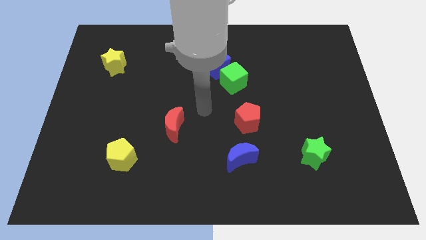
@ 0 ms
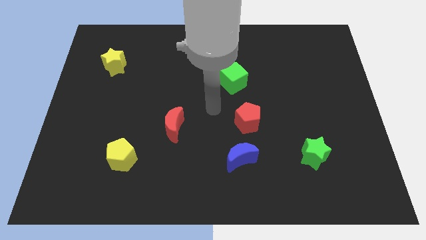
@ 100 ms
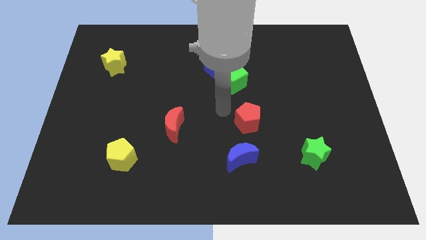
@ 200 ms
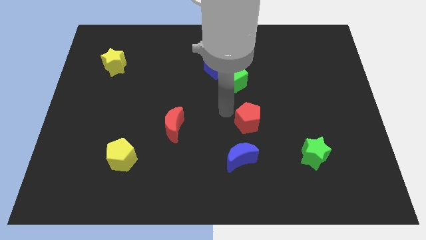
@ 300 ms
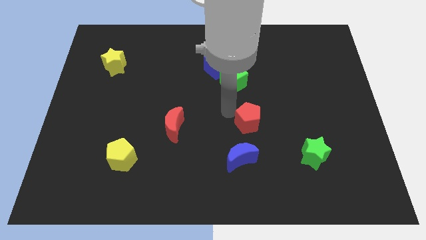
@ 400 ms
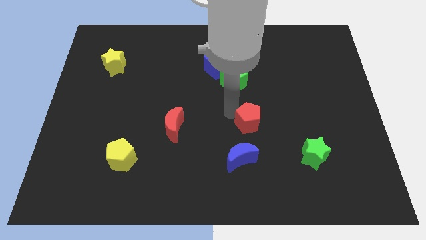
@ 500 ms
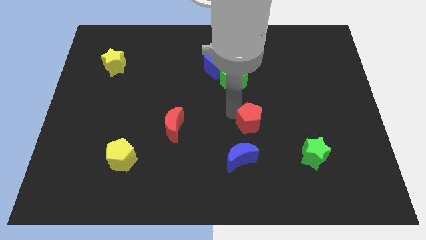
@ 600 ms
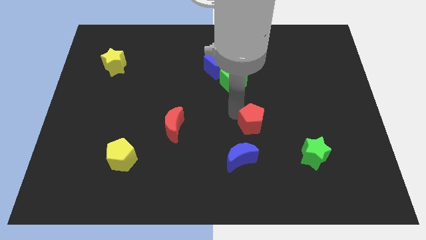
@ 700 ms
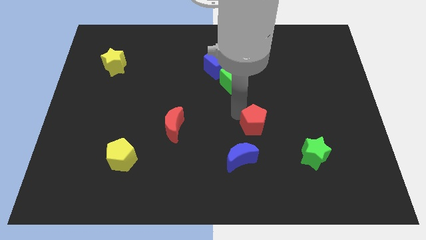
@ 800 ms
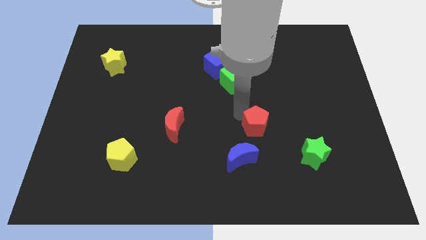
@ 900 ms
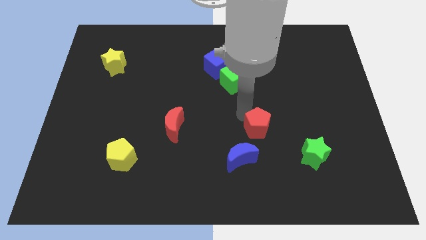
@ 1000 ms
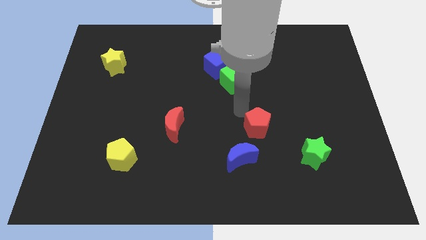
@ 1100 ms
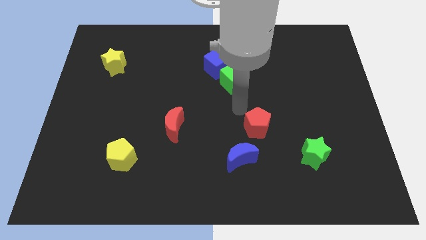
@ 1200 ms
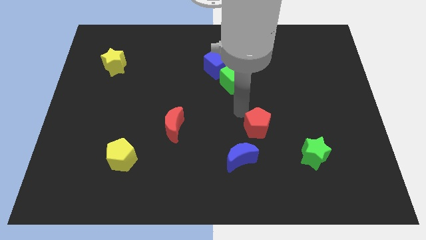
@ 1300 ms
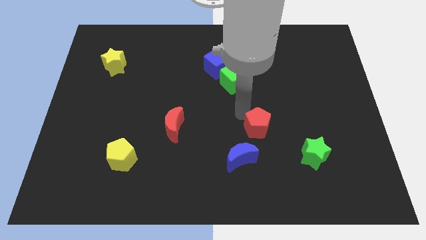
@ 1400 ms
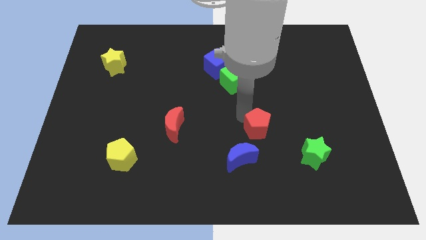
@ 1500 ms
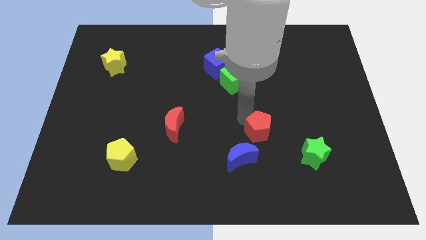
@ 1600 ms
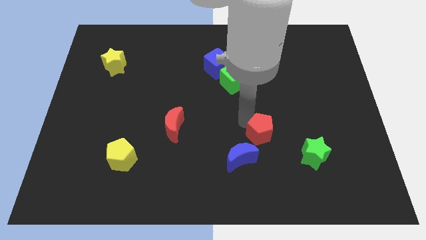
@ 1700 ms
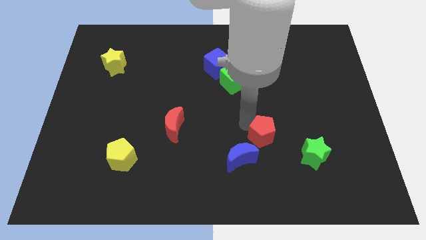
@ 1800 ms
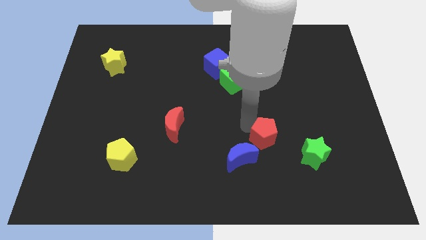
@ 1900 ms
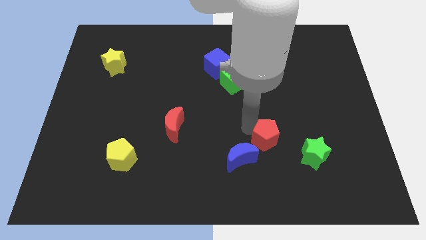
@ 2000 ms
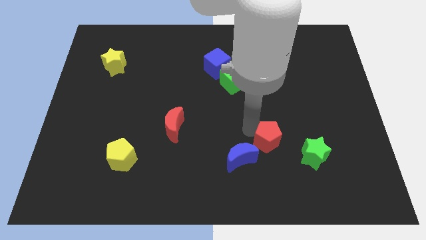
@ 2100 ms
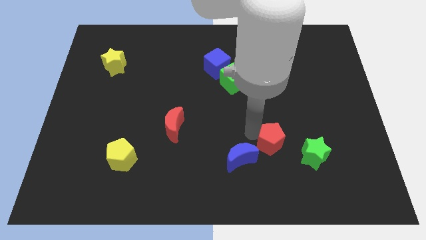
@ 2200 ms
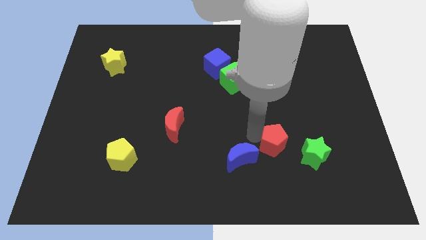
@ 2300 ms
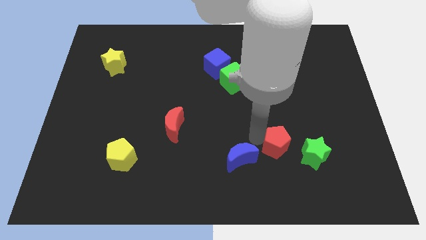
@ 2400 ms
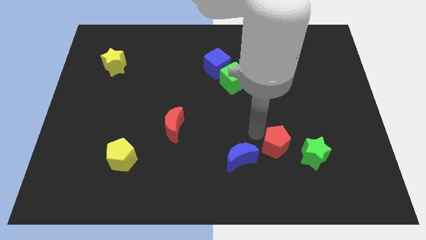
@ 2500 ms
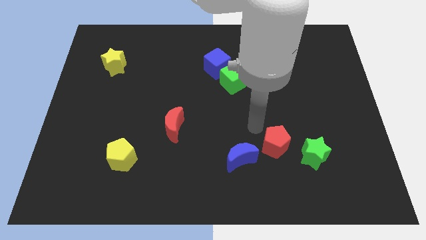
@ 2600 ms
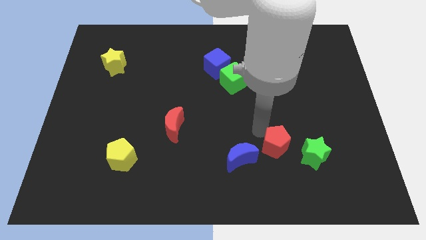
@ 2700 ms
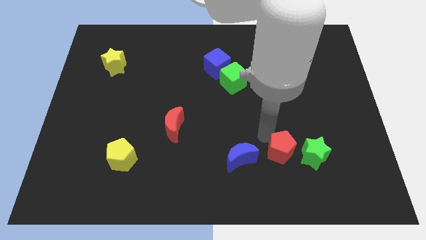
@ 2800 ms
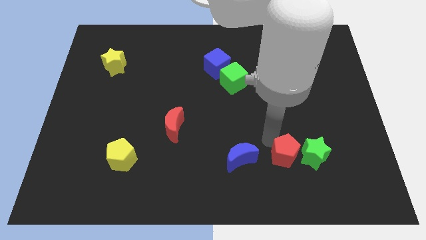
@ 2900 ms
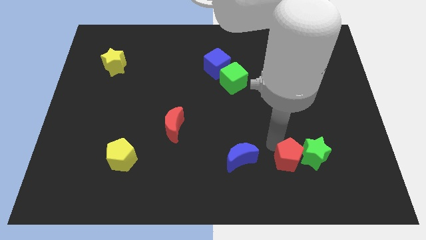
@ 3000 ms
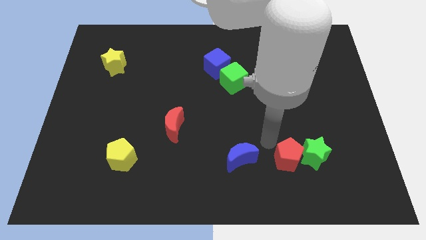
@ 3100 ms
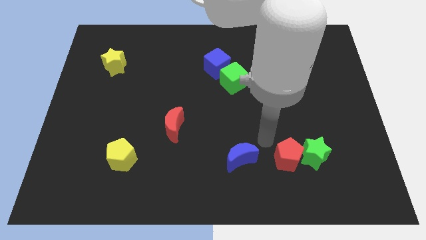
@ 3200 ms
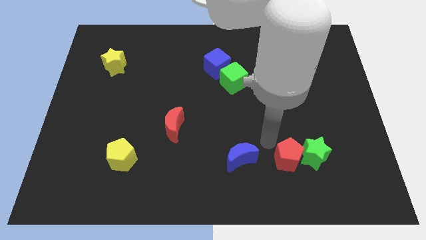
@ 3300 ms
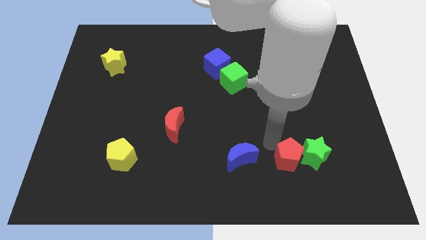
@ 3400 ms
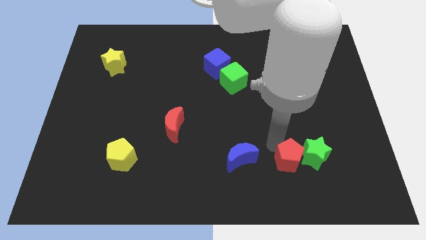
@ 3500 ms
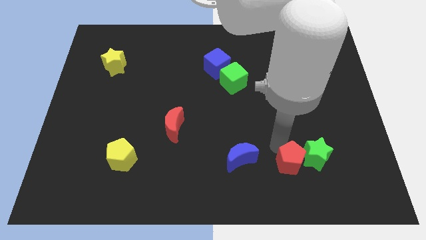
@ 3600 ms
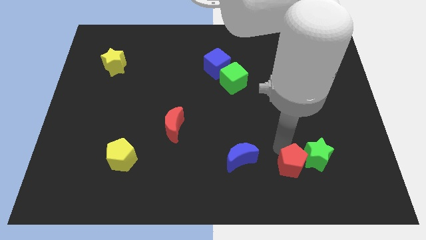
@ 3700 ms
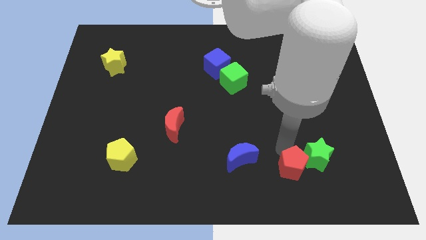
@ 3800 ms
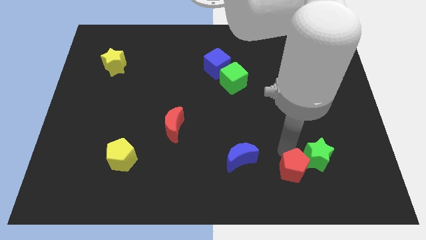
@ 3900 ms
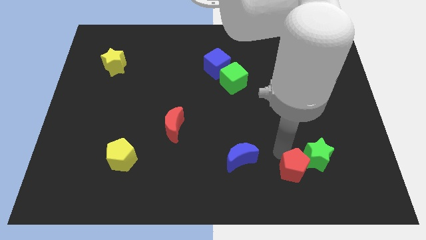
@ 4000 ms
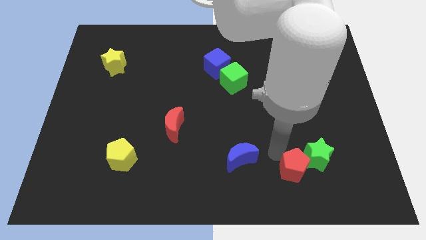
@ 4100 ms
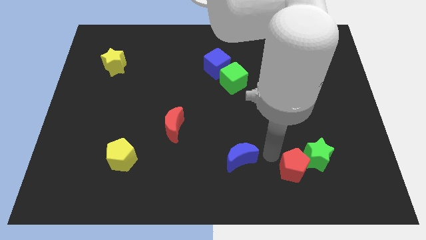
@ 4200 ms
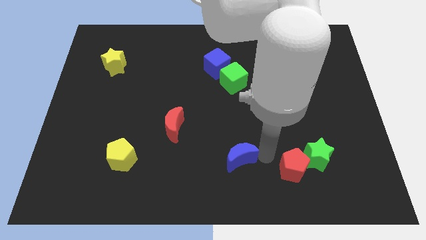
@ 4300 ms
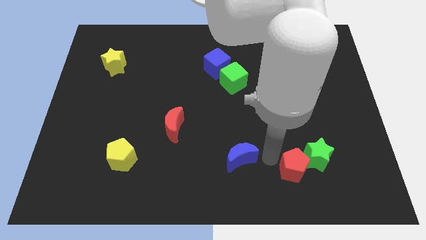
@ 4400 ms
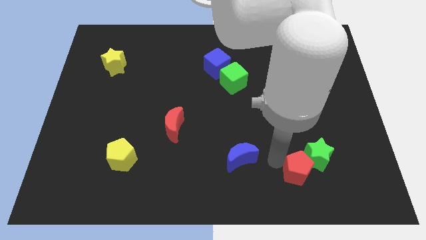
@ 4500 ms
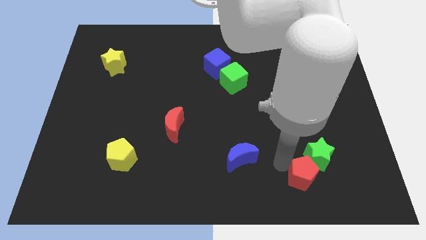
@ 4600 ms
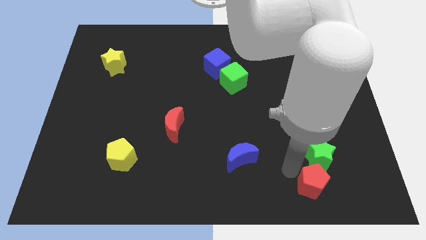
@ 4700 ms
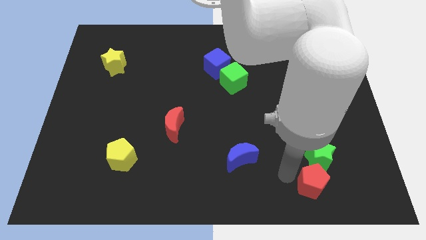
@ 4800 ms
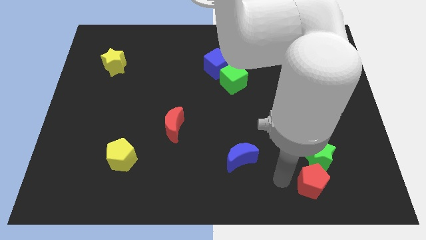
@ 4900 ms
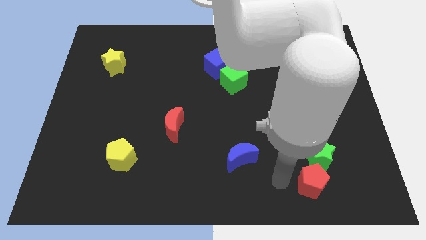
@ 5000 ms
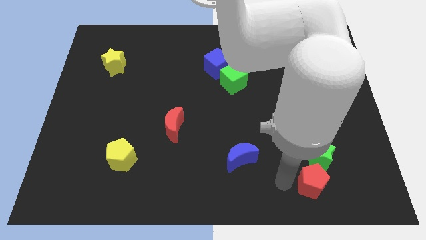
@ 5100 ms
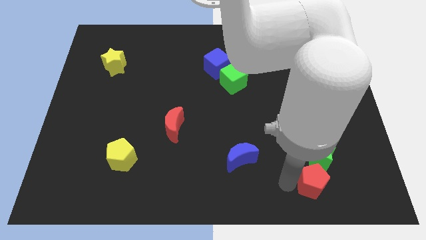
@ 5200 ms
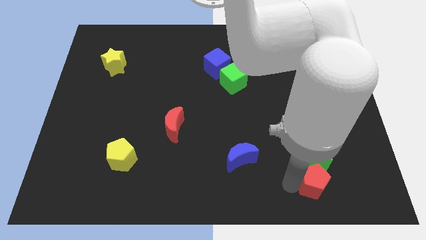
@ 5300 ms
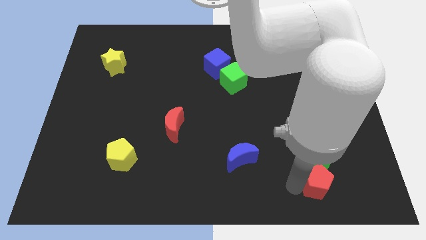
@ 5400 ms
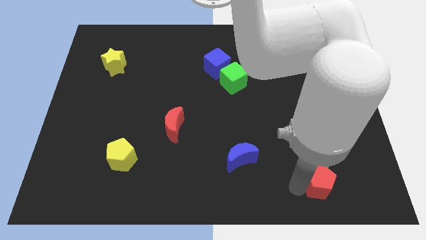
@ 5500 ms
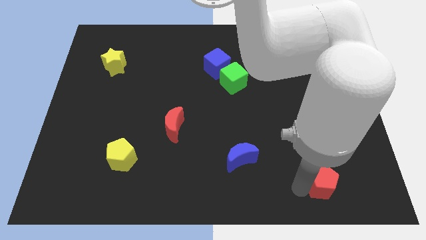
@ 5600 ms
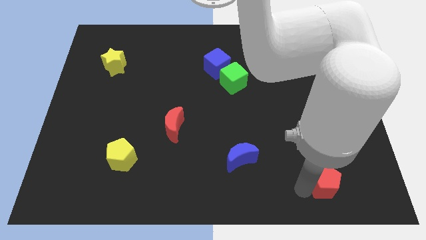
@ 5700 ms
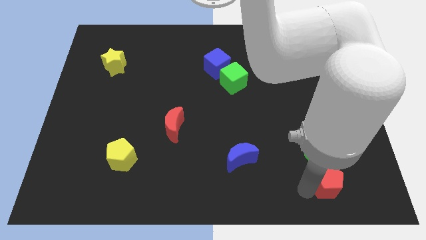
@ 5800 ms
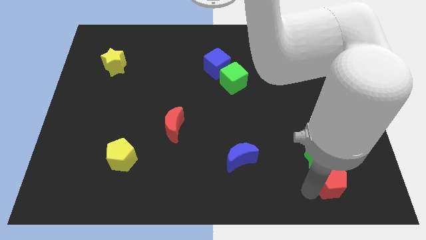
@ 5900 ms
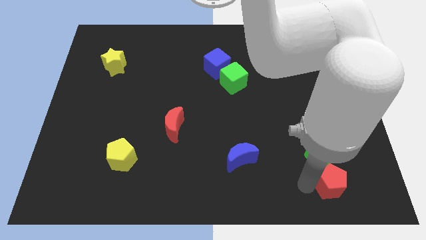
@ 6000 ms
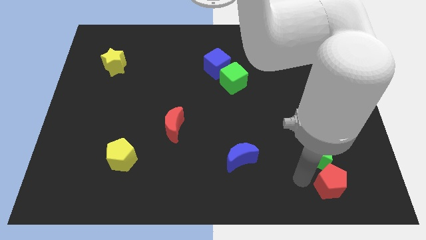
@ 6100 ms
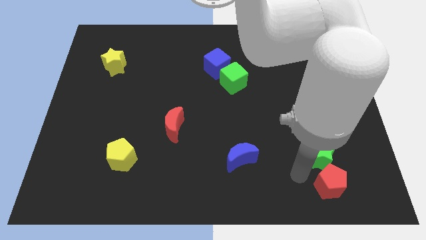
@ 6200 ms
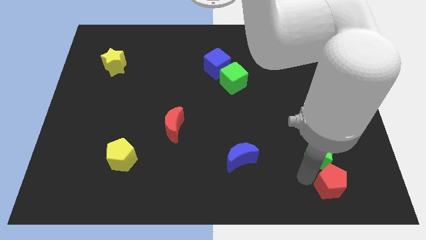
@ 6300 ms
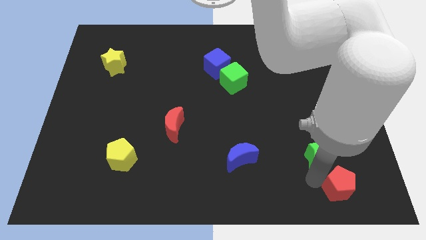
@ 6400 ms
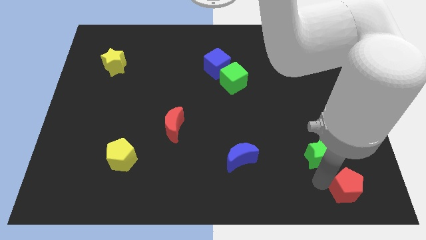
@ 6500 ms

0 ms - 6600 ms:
slide the red pentagon to the lower right corner
